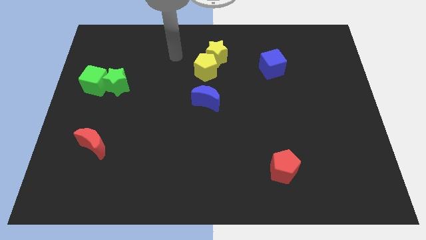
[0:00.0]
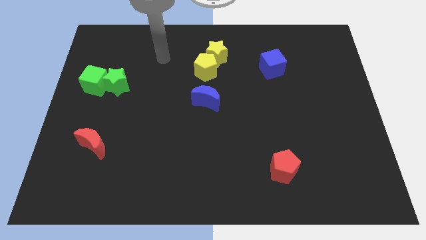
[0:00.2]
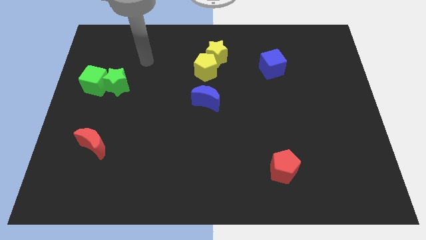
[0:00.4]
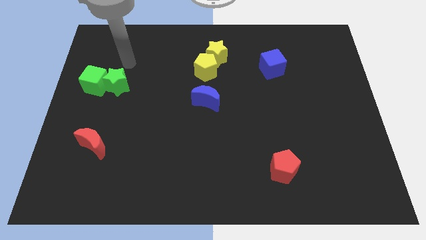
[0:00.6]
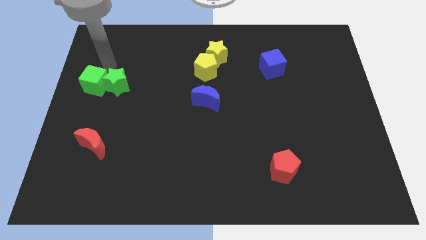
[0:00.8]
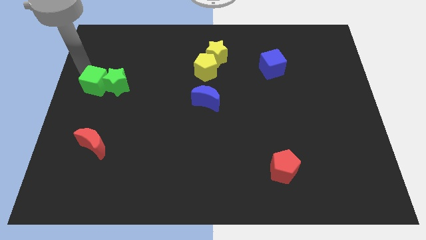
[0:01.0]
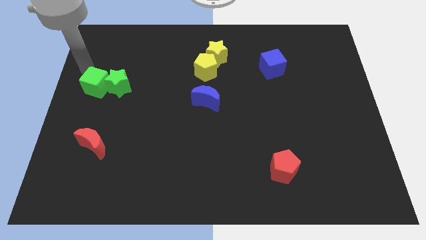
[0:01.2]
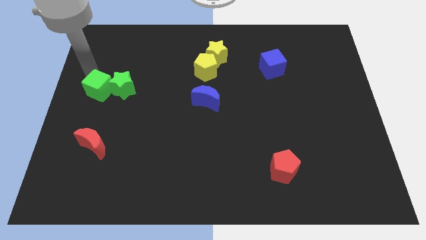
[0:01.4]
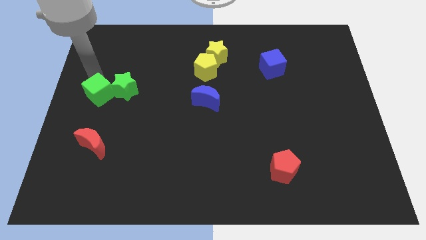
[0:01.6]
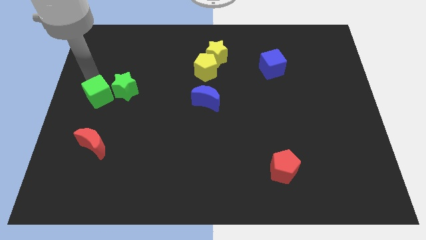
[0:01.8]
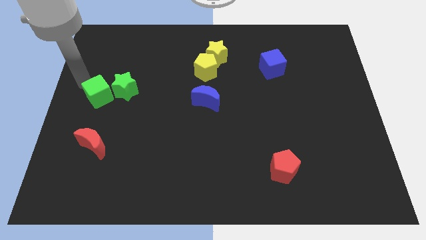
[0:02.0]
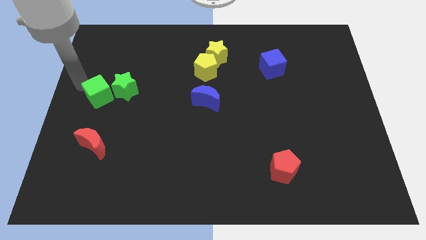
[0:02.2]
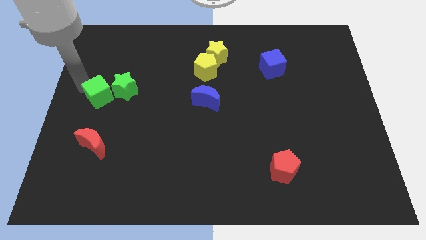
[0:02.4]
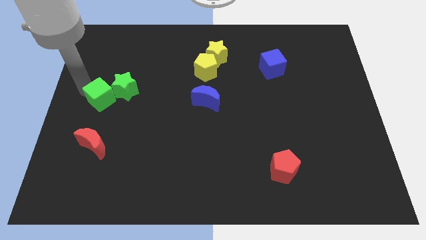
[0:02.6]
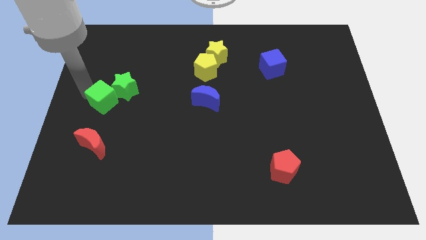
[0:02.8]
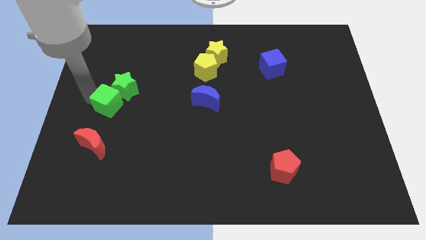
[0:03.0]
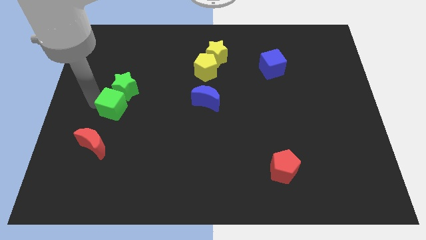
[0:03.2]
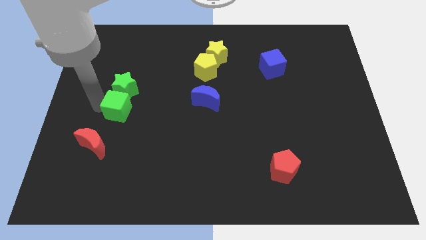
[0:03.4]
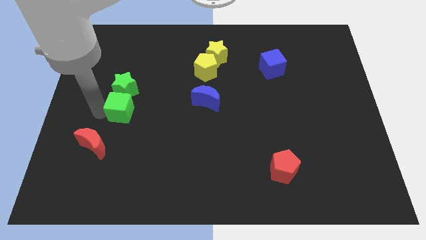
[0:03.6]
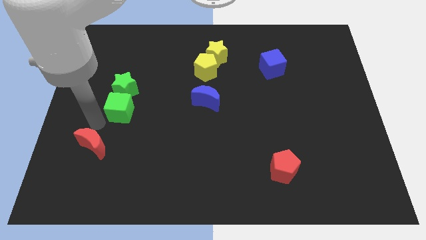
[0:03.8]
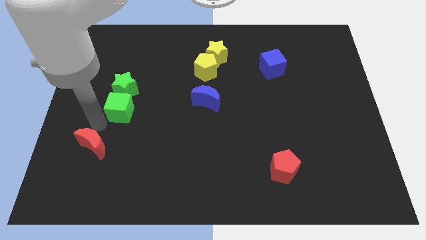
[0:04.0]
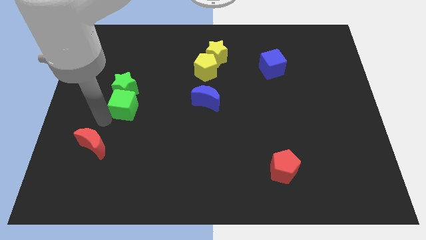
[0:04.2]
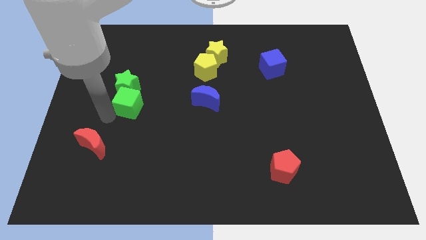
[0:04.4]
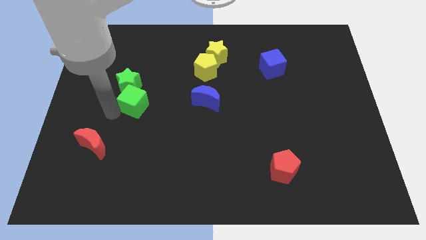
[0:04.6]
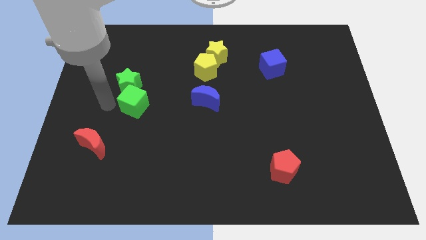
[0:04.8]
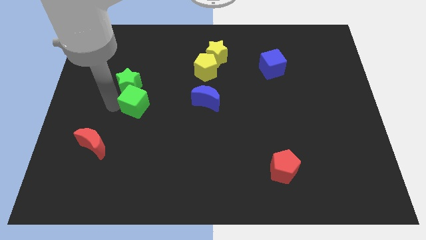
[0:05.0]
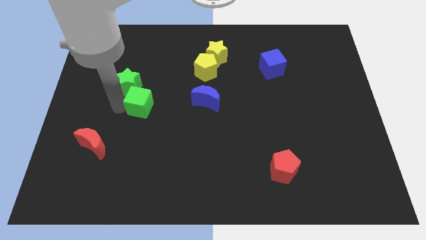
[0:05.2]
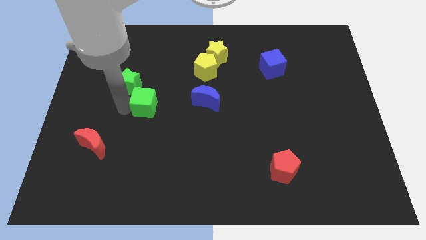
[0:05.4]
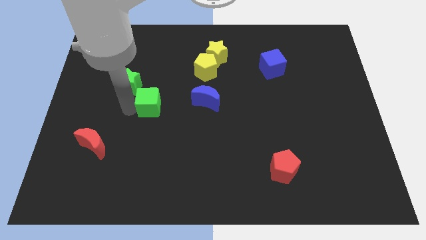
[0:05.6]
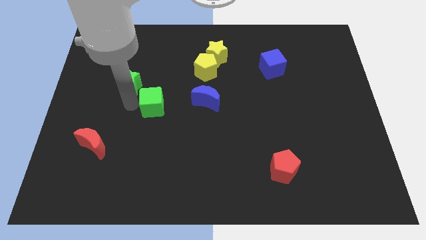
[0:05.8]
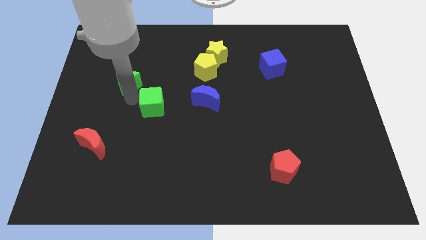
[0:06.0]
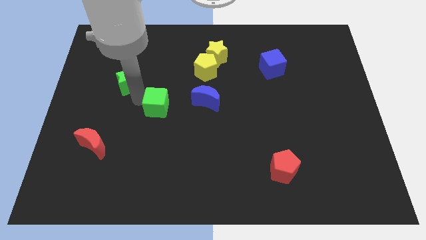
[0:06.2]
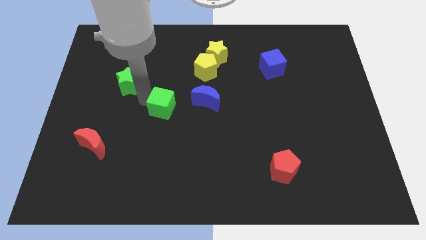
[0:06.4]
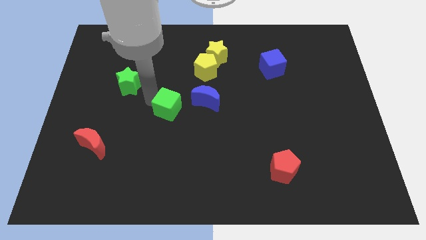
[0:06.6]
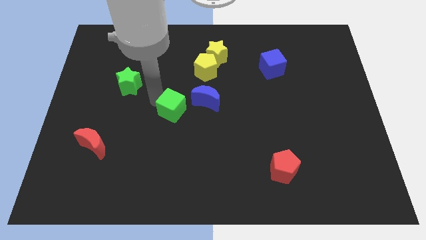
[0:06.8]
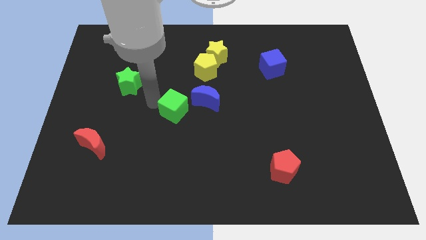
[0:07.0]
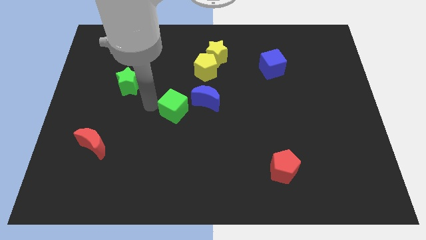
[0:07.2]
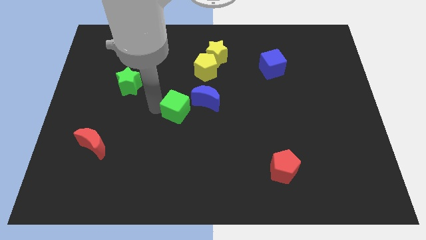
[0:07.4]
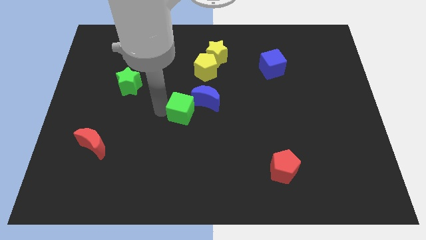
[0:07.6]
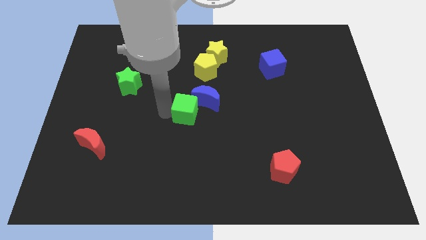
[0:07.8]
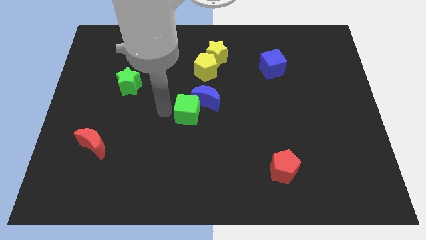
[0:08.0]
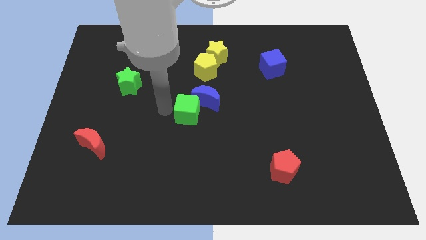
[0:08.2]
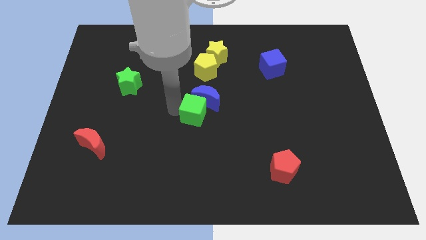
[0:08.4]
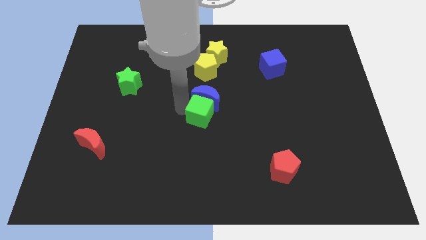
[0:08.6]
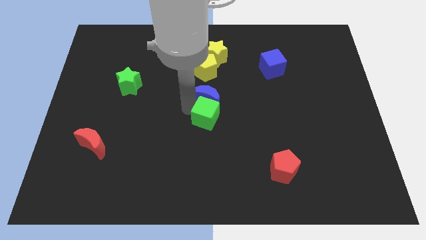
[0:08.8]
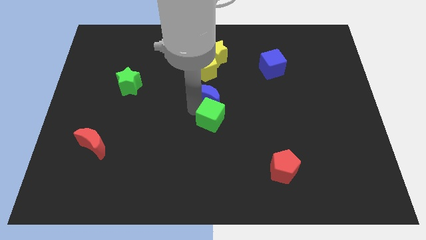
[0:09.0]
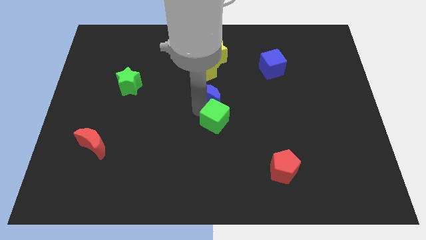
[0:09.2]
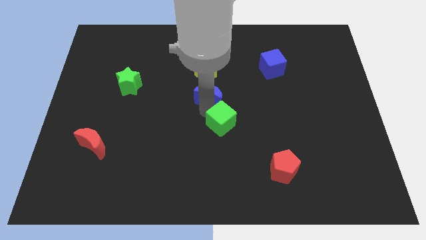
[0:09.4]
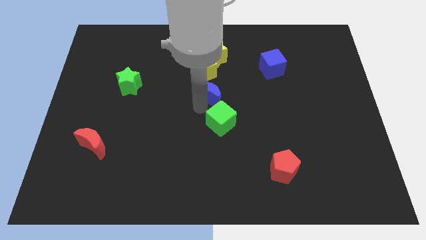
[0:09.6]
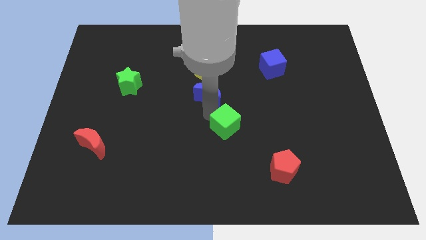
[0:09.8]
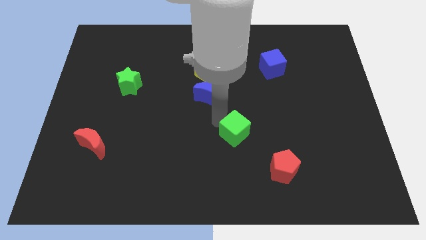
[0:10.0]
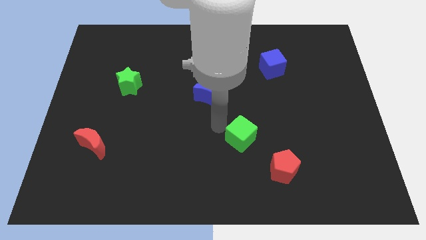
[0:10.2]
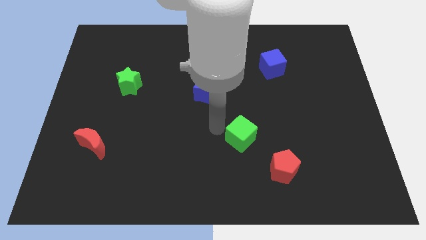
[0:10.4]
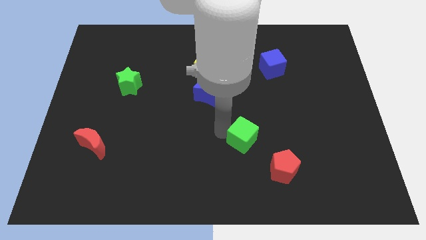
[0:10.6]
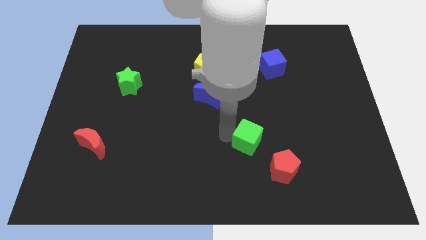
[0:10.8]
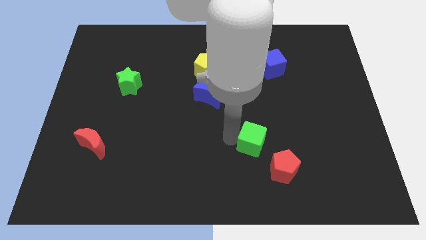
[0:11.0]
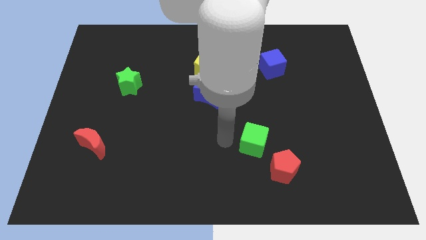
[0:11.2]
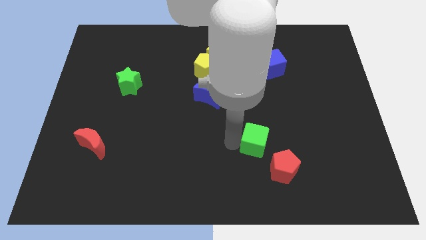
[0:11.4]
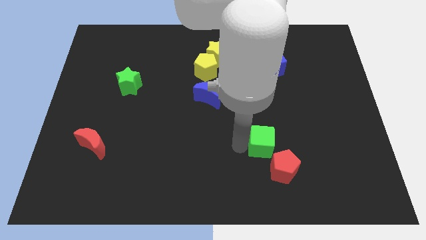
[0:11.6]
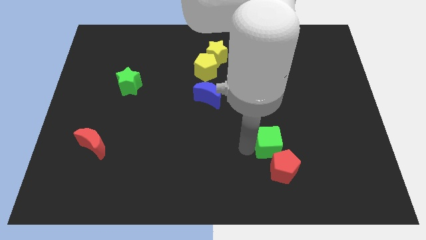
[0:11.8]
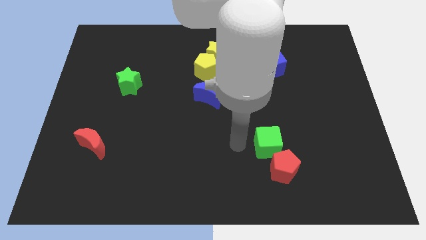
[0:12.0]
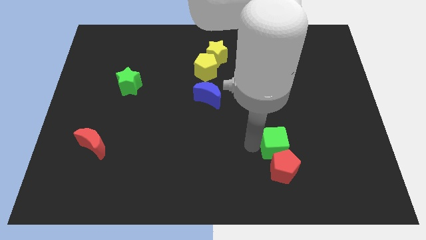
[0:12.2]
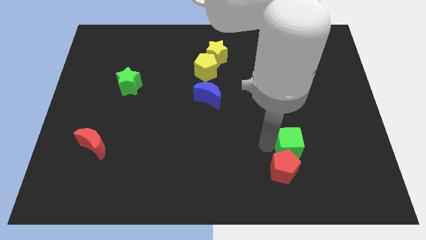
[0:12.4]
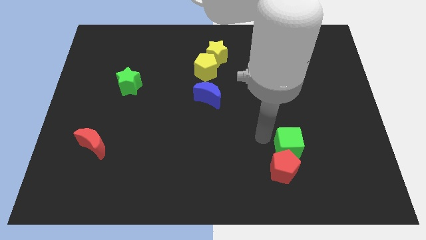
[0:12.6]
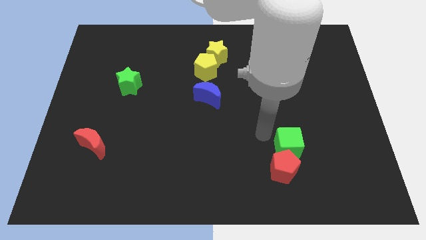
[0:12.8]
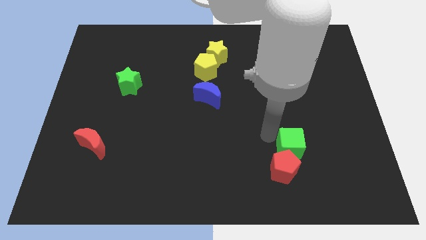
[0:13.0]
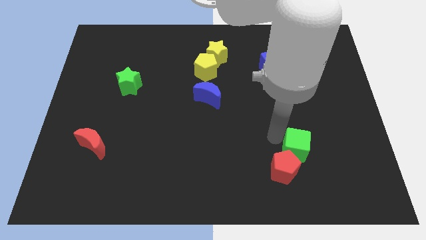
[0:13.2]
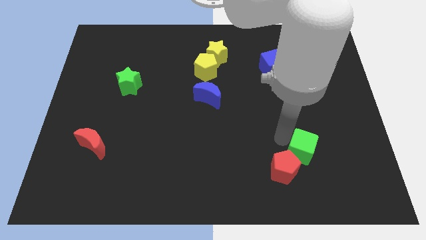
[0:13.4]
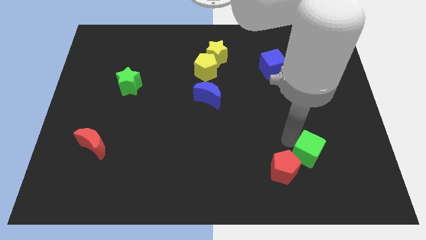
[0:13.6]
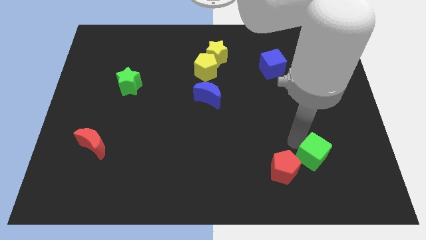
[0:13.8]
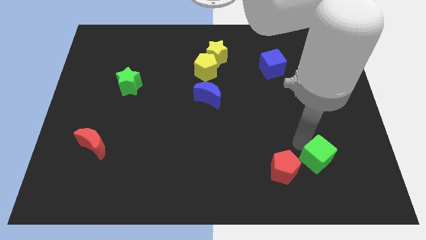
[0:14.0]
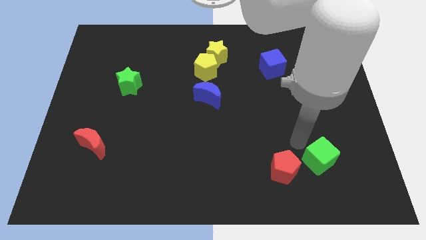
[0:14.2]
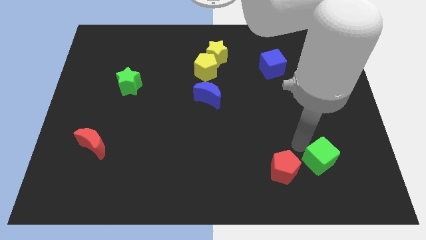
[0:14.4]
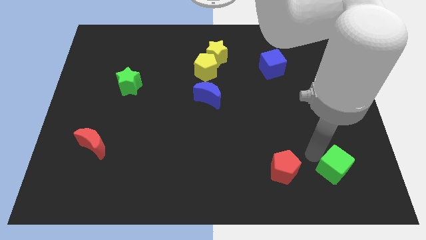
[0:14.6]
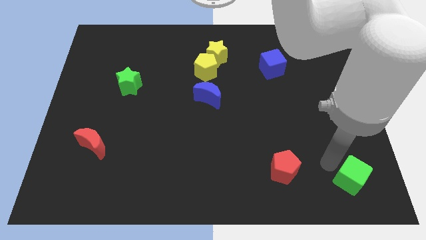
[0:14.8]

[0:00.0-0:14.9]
push the green cube to the bottom right
